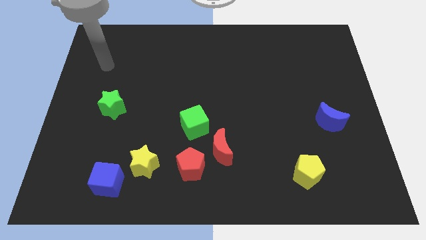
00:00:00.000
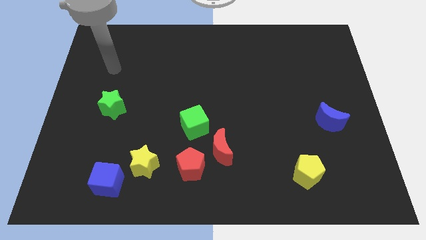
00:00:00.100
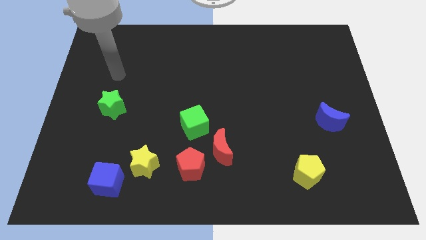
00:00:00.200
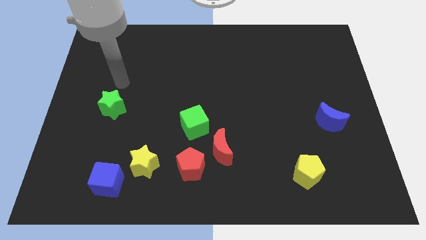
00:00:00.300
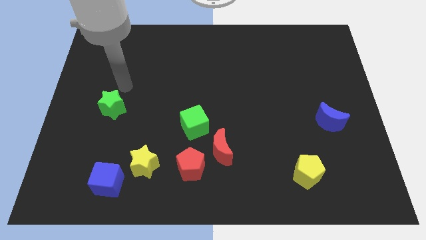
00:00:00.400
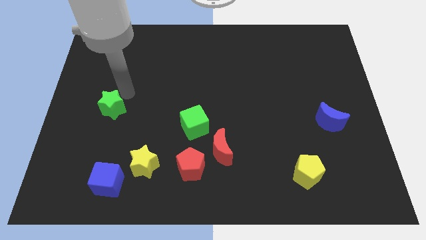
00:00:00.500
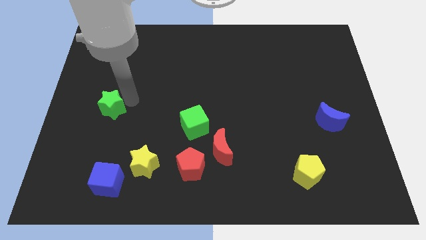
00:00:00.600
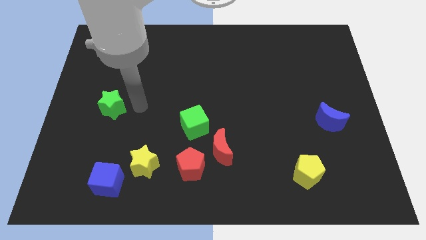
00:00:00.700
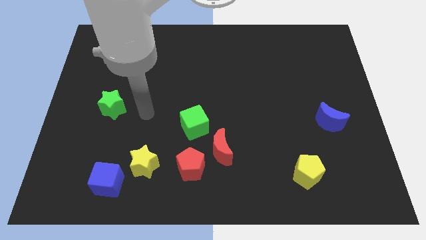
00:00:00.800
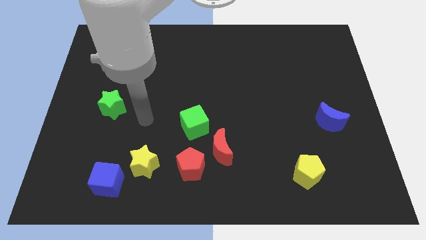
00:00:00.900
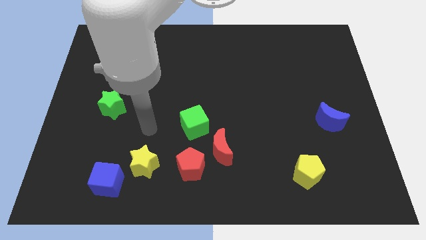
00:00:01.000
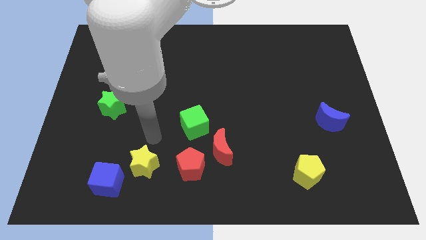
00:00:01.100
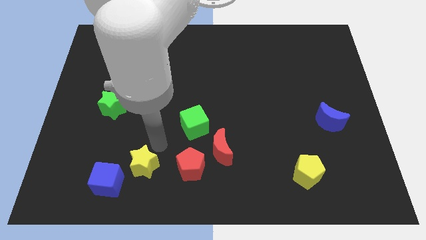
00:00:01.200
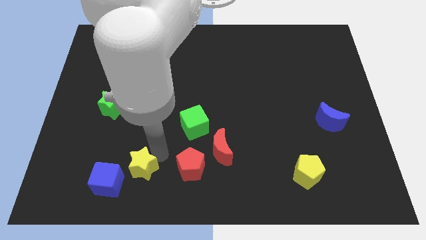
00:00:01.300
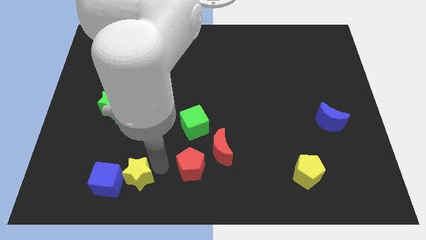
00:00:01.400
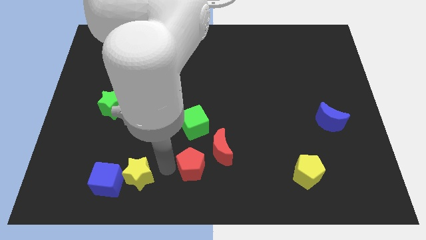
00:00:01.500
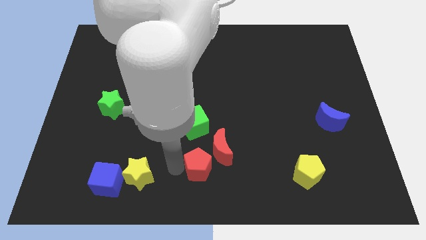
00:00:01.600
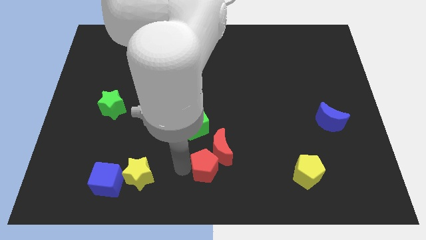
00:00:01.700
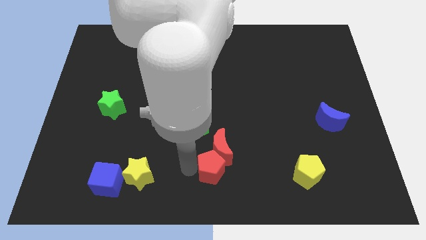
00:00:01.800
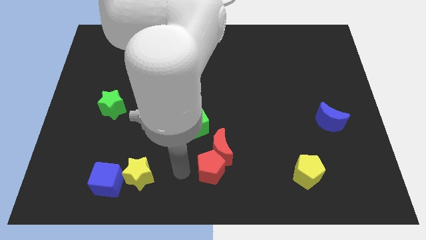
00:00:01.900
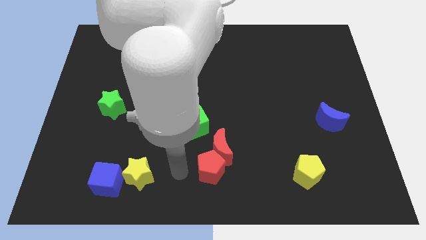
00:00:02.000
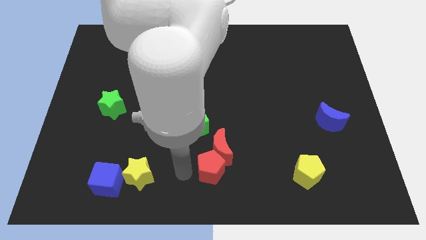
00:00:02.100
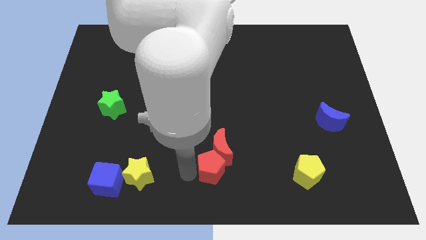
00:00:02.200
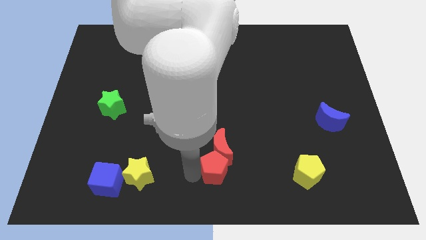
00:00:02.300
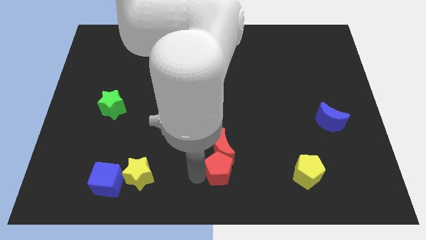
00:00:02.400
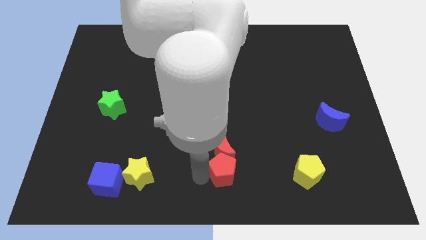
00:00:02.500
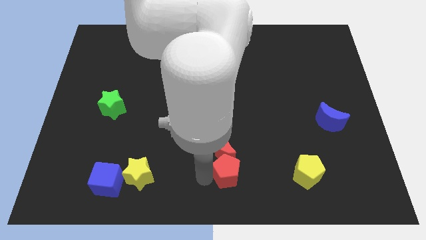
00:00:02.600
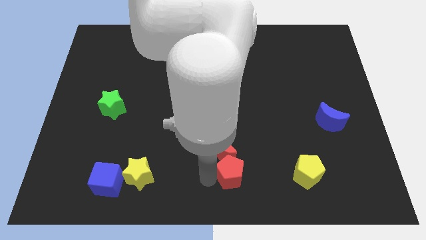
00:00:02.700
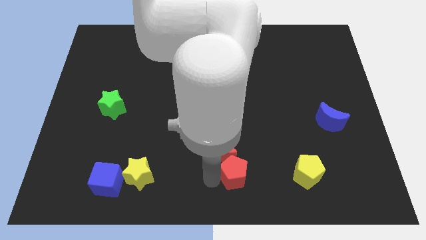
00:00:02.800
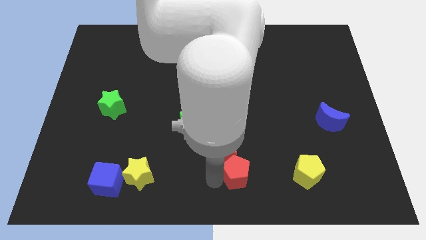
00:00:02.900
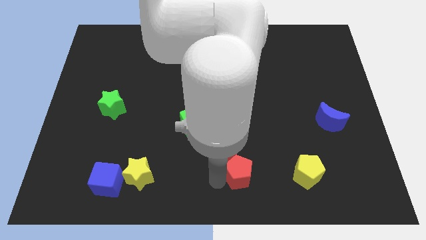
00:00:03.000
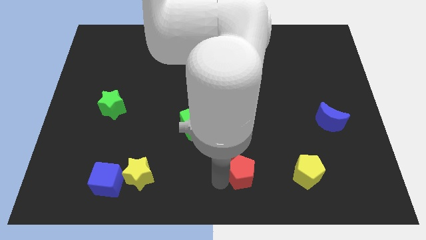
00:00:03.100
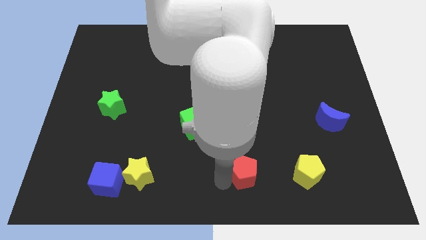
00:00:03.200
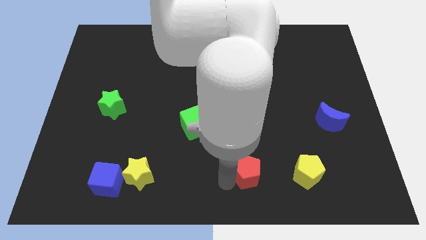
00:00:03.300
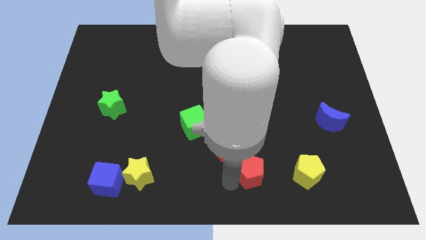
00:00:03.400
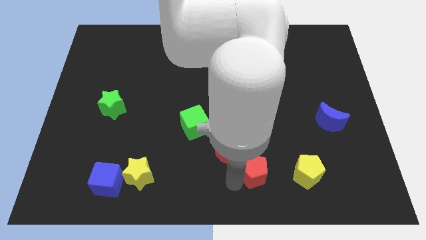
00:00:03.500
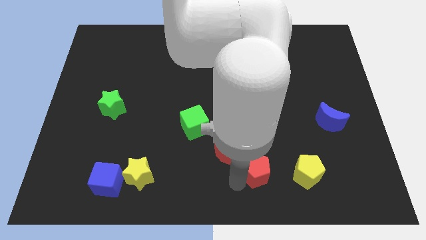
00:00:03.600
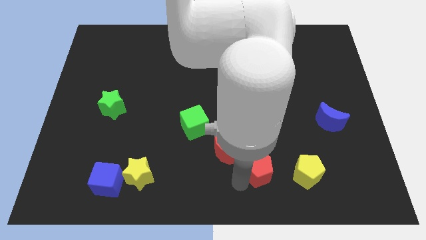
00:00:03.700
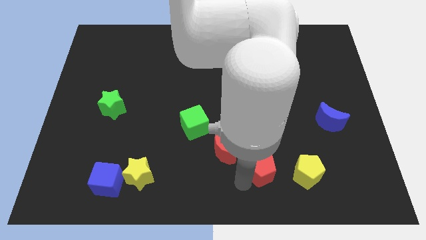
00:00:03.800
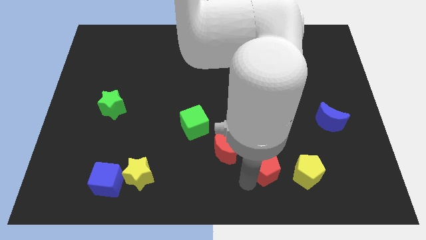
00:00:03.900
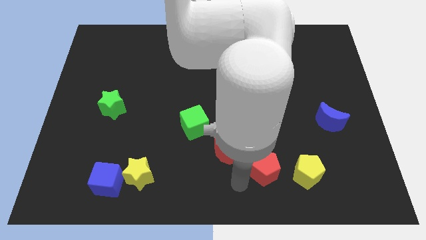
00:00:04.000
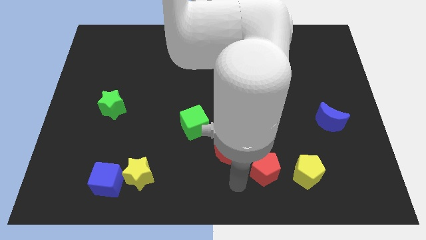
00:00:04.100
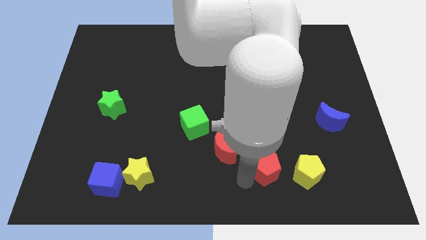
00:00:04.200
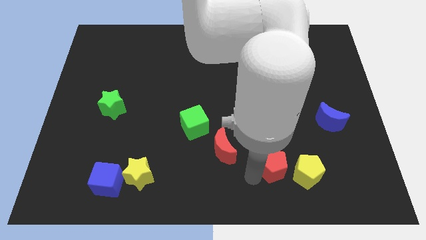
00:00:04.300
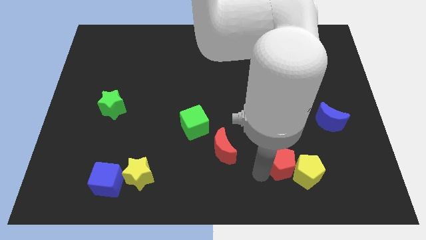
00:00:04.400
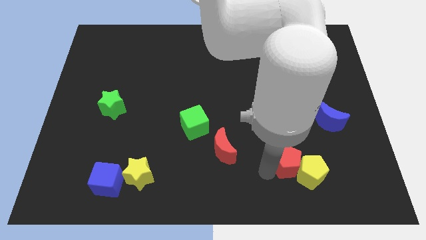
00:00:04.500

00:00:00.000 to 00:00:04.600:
slide the red pentagon right

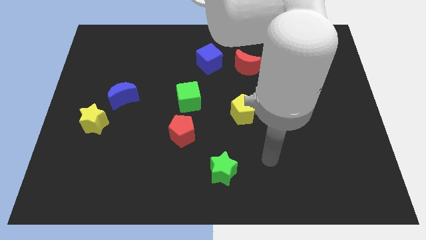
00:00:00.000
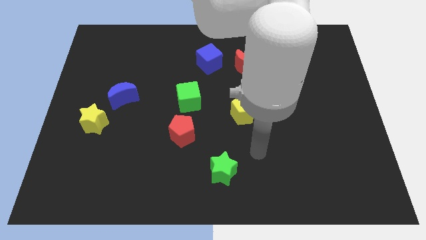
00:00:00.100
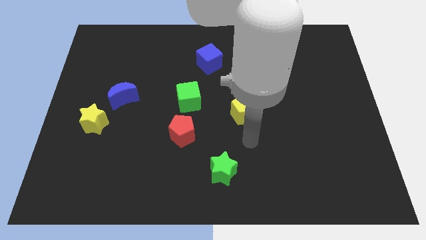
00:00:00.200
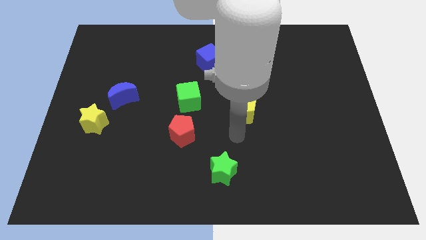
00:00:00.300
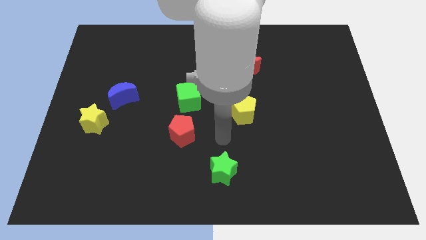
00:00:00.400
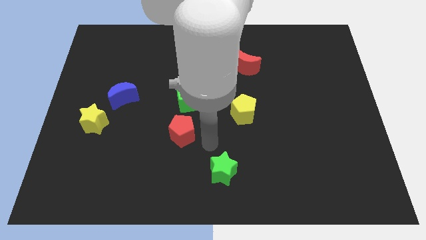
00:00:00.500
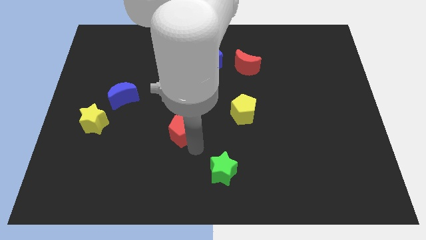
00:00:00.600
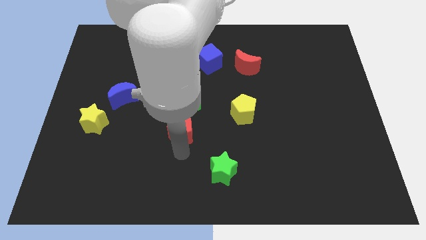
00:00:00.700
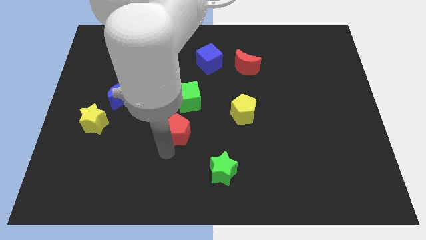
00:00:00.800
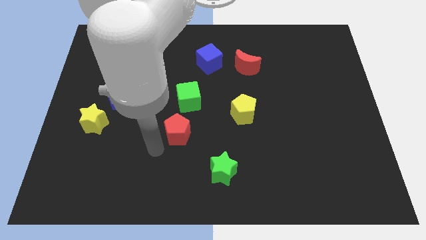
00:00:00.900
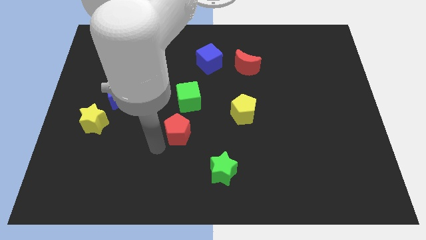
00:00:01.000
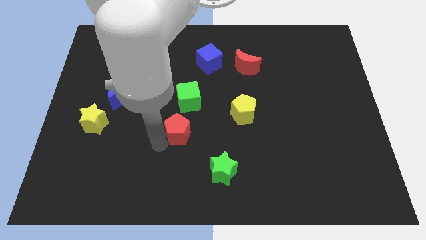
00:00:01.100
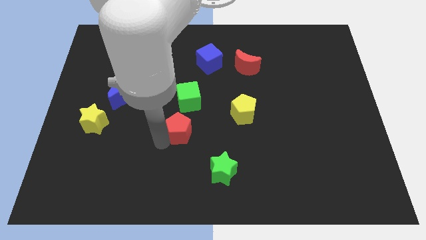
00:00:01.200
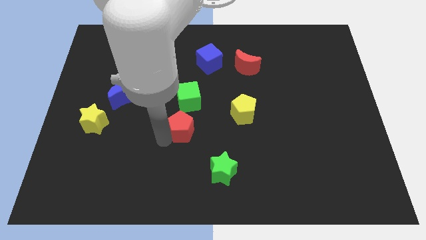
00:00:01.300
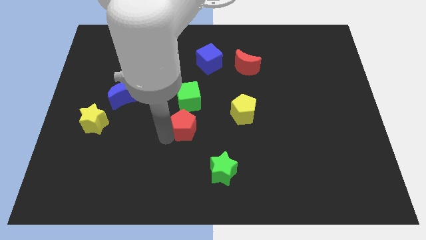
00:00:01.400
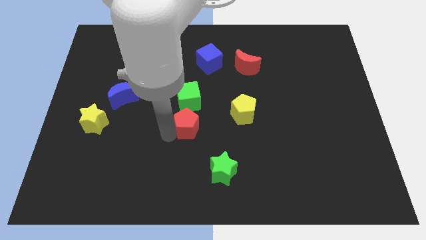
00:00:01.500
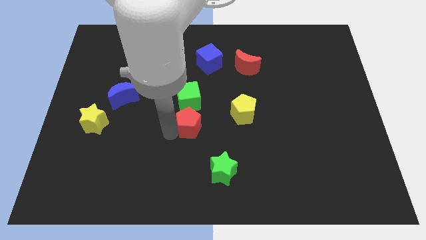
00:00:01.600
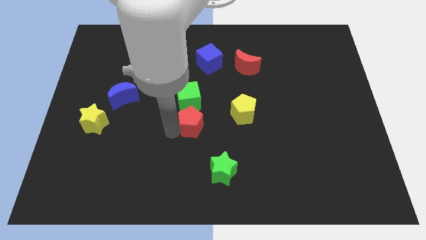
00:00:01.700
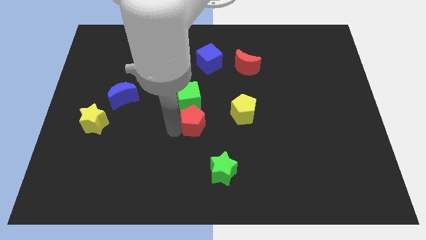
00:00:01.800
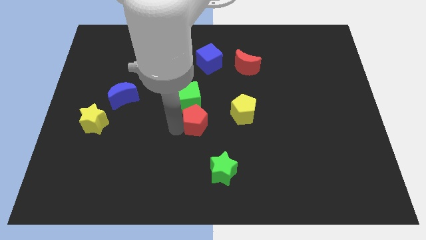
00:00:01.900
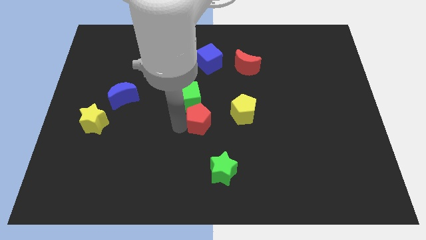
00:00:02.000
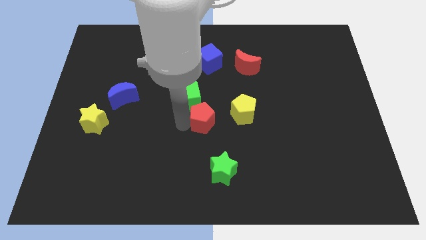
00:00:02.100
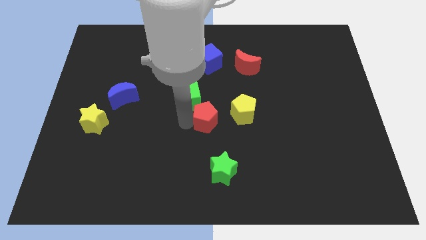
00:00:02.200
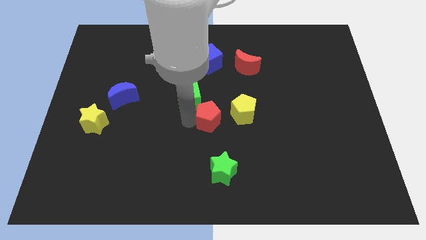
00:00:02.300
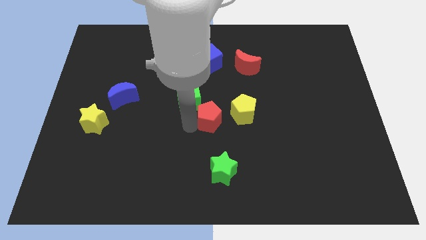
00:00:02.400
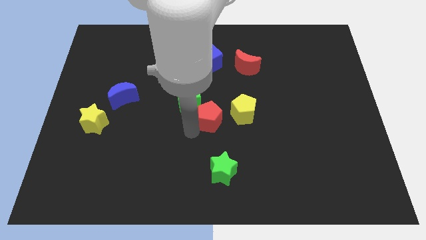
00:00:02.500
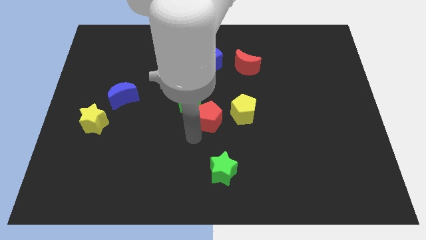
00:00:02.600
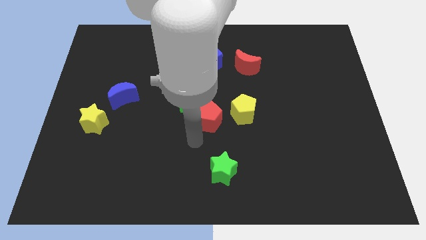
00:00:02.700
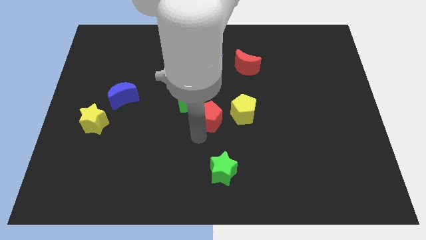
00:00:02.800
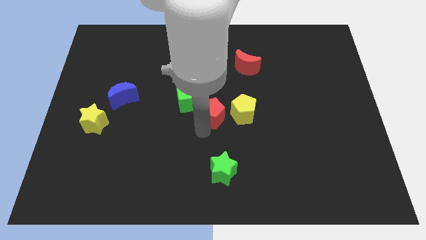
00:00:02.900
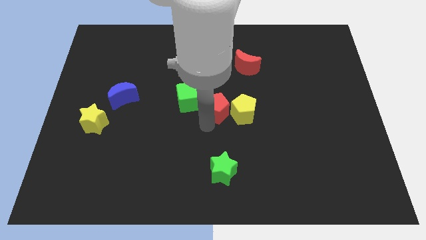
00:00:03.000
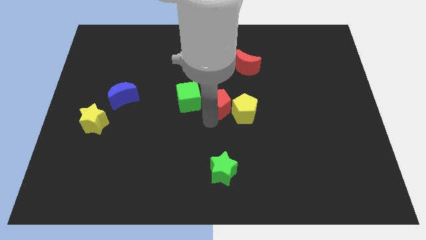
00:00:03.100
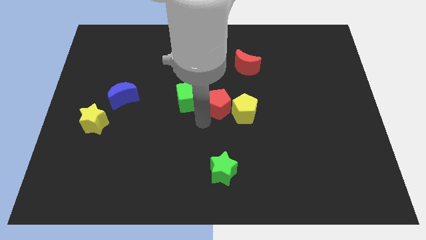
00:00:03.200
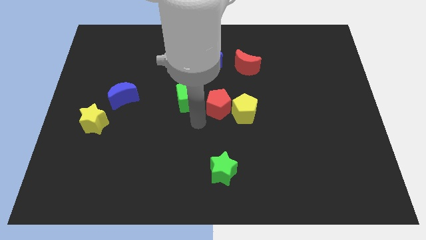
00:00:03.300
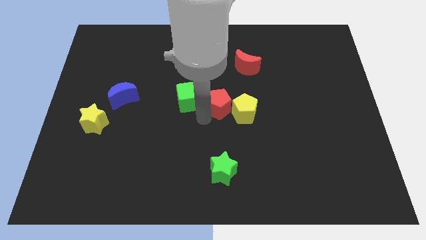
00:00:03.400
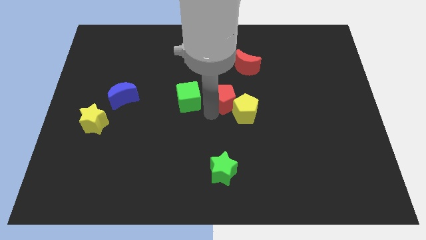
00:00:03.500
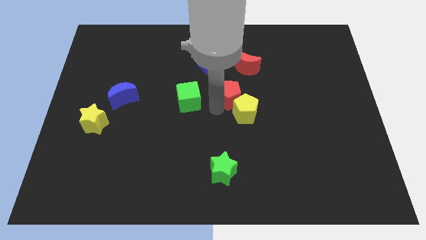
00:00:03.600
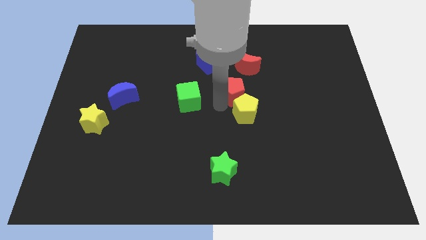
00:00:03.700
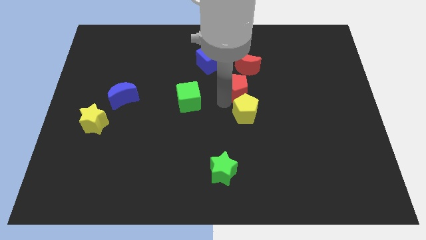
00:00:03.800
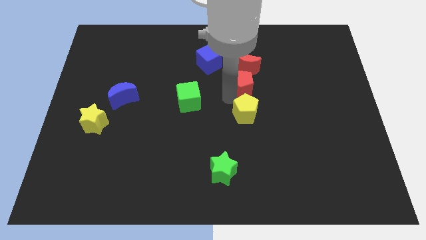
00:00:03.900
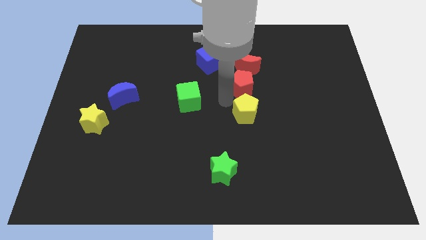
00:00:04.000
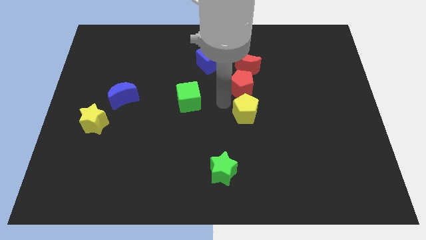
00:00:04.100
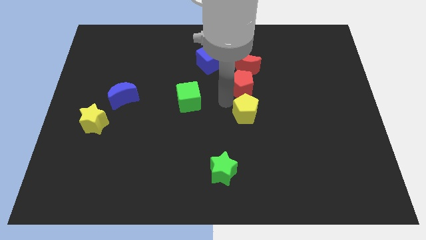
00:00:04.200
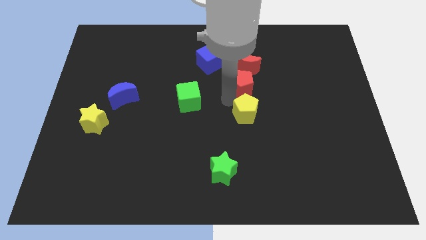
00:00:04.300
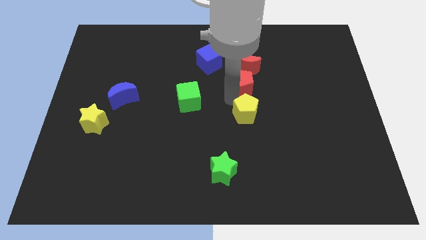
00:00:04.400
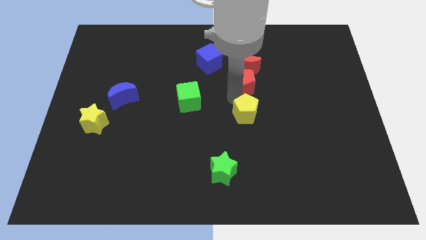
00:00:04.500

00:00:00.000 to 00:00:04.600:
push the red pentagon upwards and to the right diagonally
